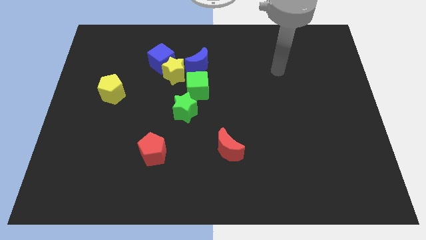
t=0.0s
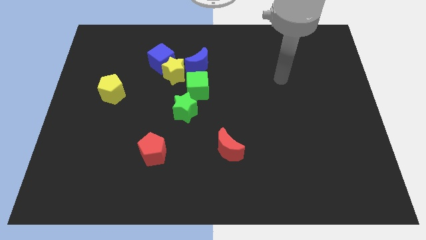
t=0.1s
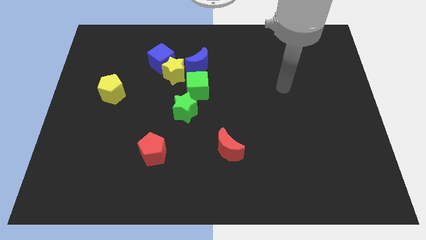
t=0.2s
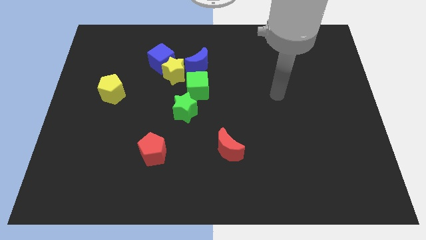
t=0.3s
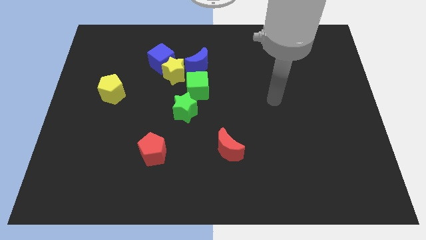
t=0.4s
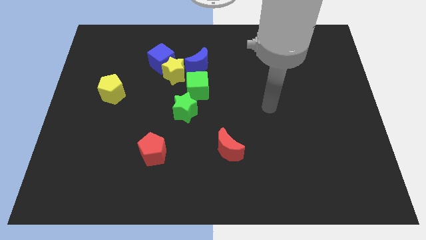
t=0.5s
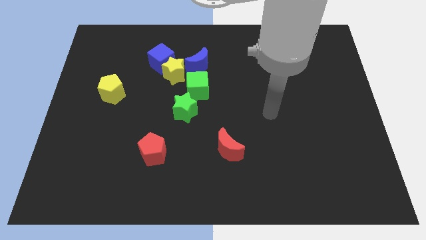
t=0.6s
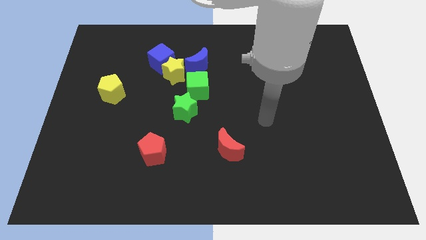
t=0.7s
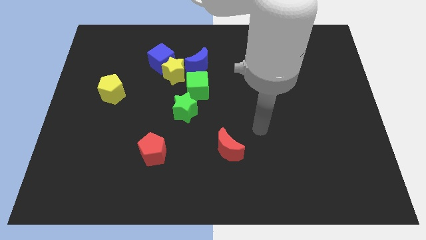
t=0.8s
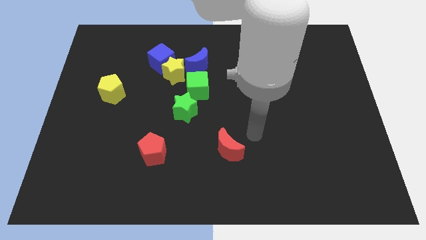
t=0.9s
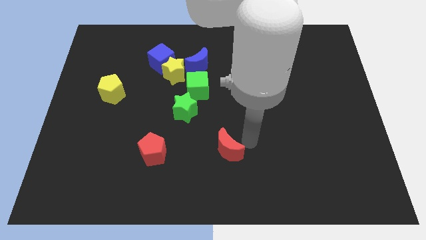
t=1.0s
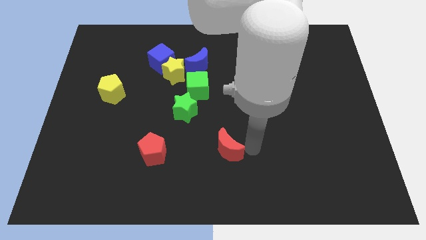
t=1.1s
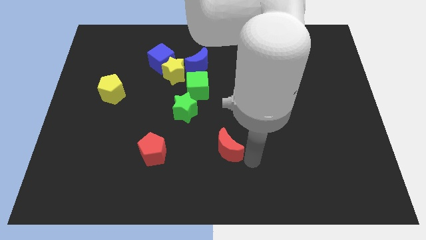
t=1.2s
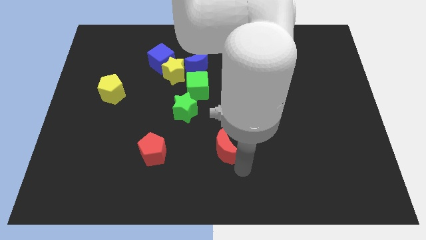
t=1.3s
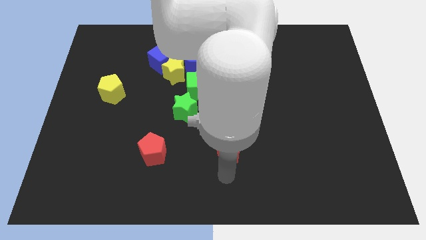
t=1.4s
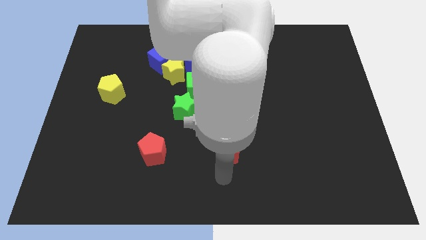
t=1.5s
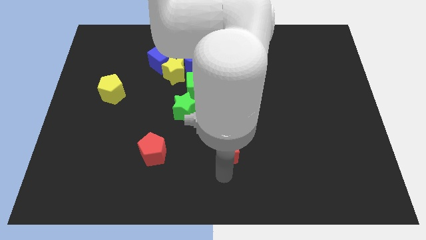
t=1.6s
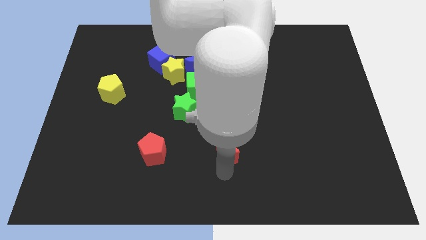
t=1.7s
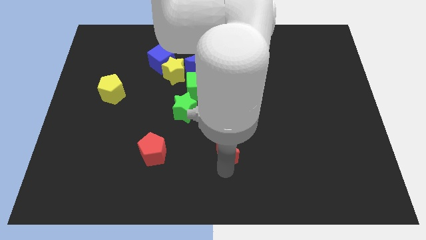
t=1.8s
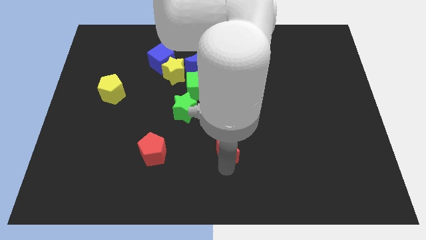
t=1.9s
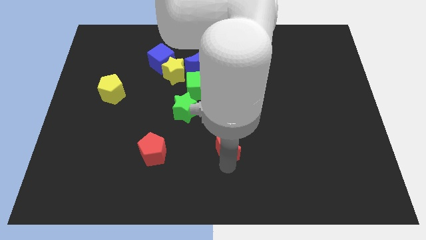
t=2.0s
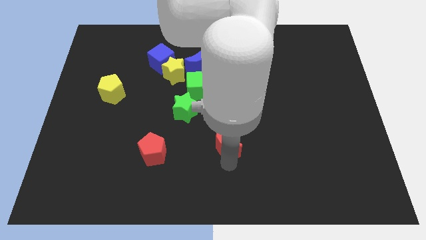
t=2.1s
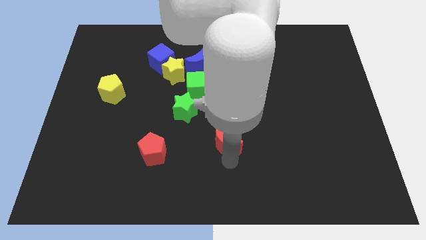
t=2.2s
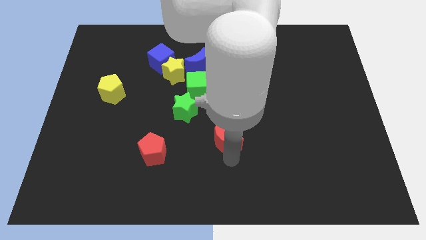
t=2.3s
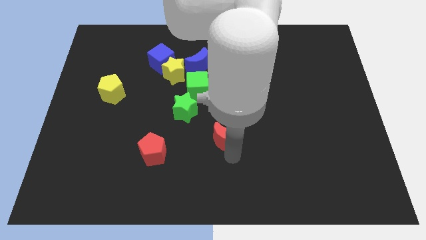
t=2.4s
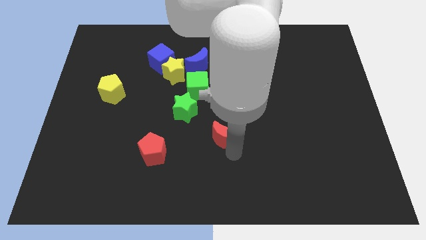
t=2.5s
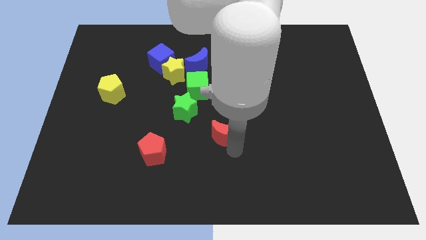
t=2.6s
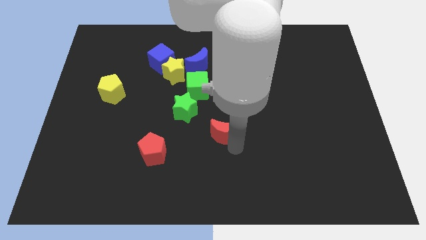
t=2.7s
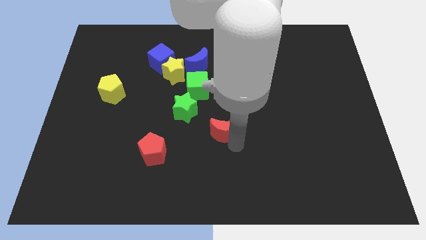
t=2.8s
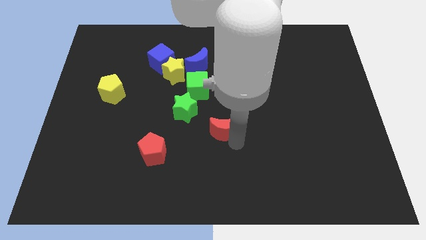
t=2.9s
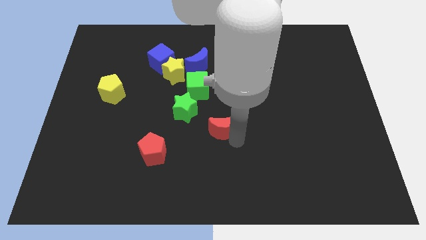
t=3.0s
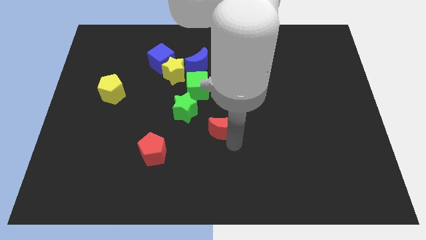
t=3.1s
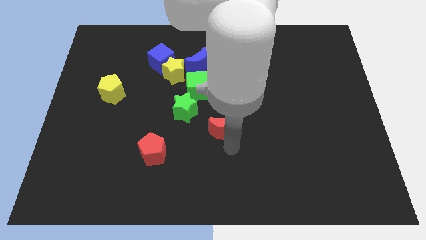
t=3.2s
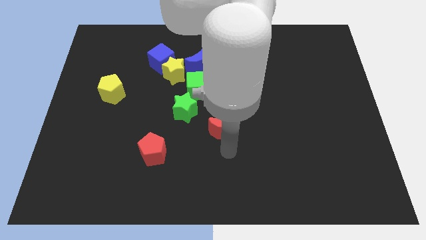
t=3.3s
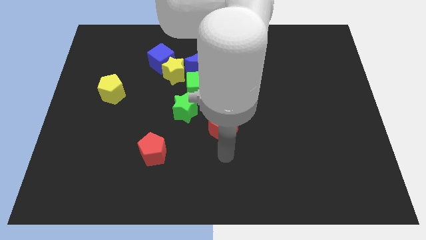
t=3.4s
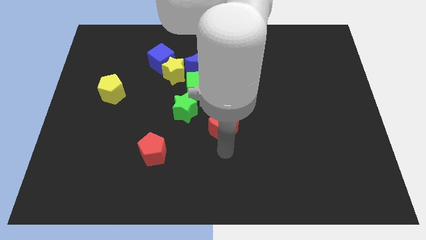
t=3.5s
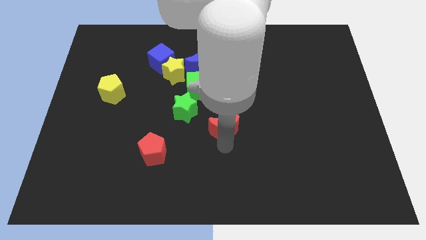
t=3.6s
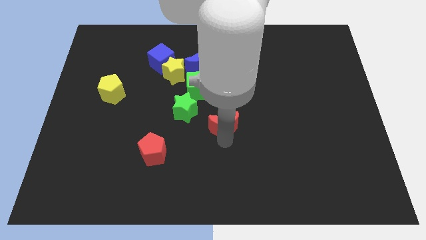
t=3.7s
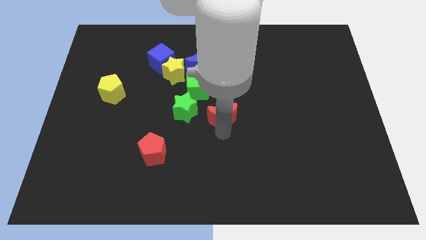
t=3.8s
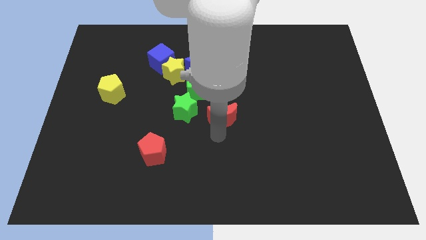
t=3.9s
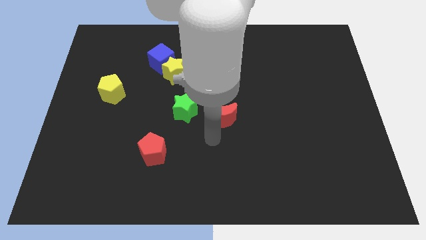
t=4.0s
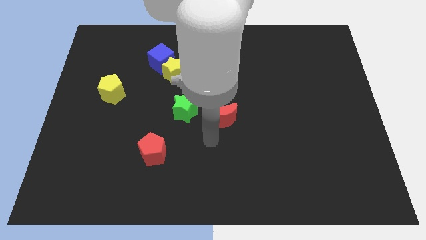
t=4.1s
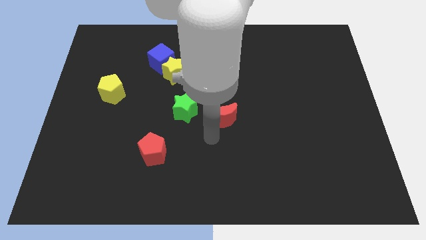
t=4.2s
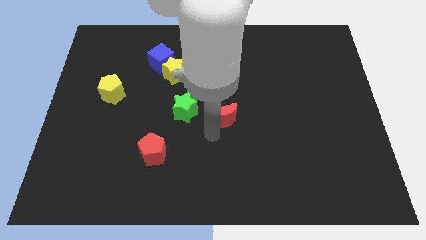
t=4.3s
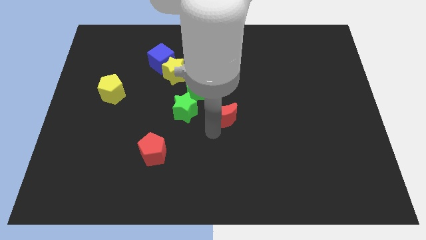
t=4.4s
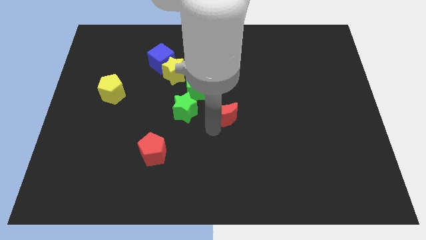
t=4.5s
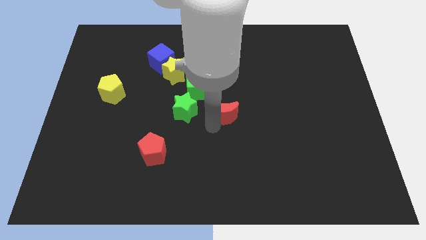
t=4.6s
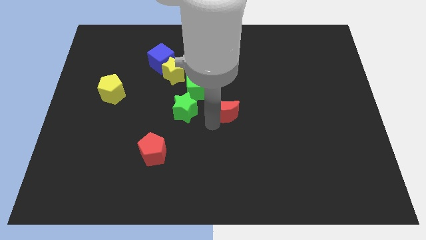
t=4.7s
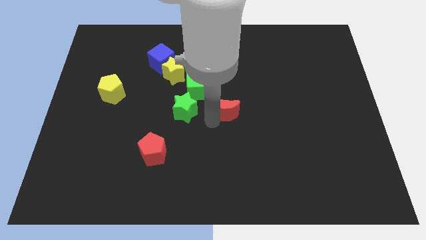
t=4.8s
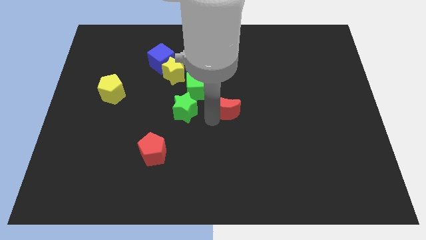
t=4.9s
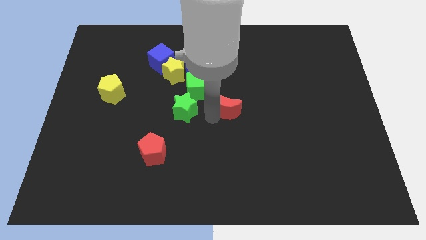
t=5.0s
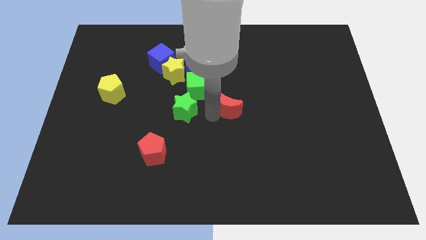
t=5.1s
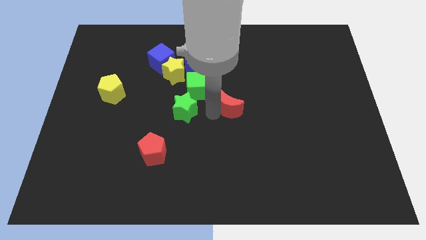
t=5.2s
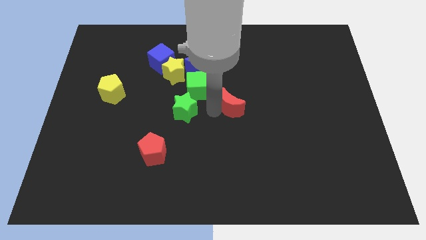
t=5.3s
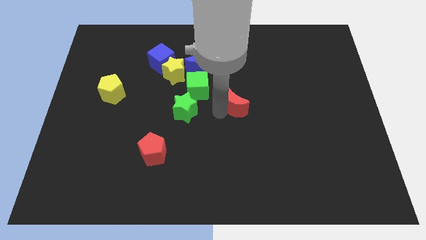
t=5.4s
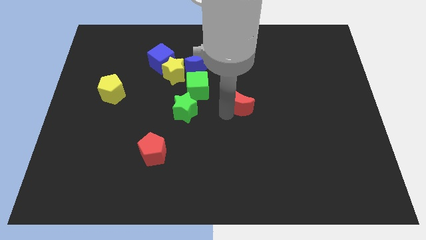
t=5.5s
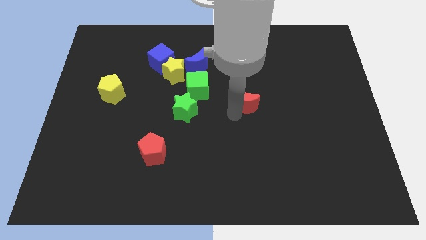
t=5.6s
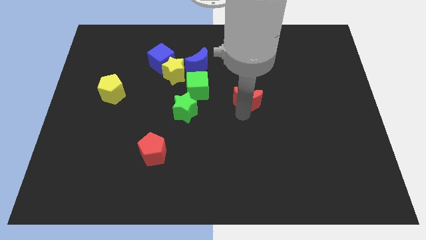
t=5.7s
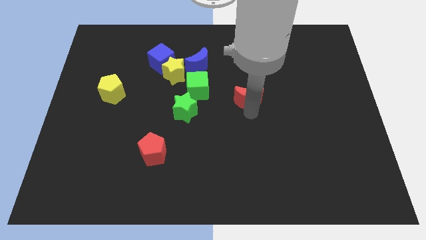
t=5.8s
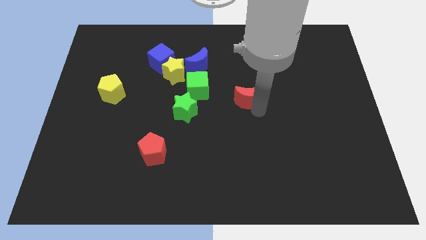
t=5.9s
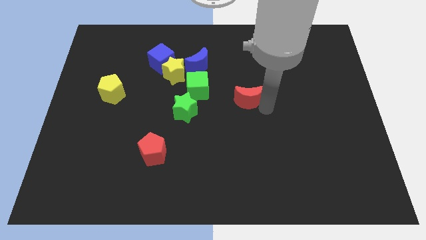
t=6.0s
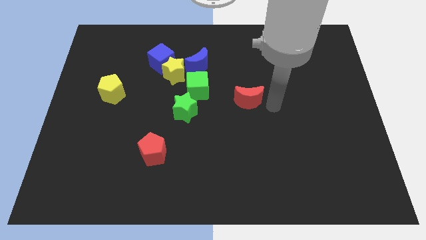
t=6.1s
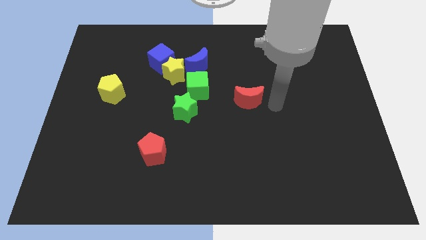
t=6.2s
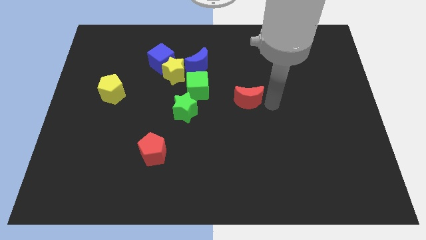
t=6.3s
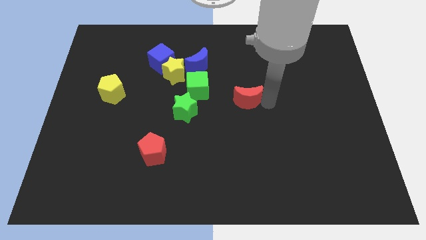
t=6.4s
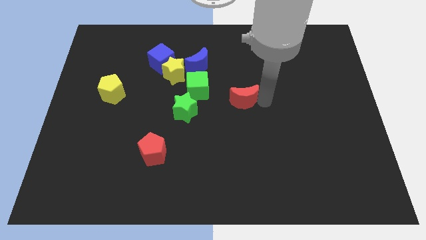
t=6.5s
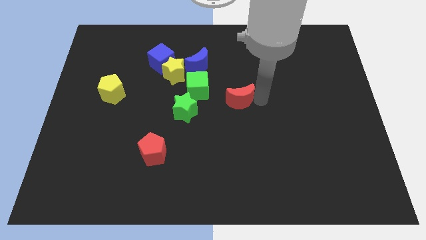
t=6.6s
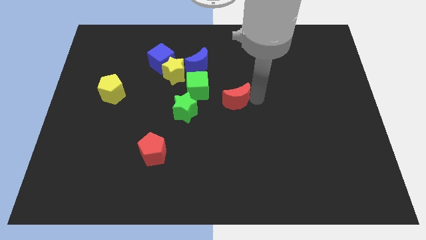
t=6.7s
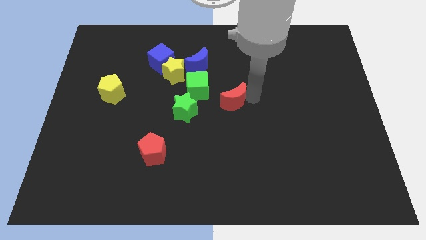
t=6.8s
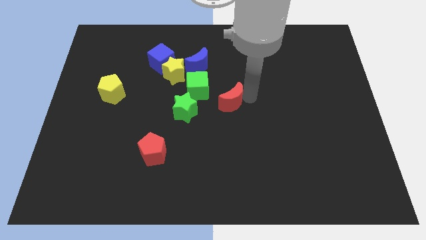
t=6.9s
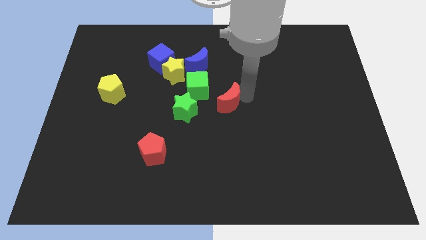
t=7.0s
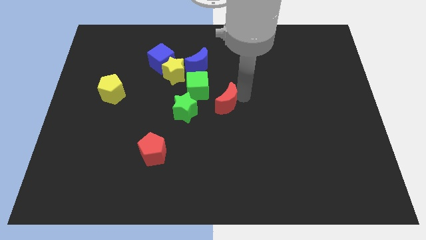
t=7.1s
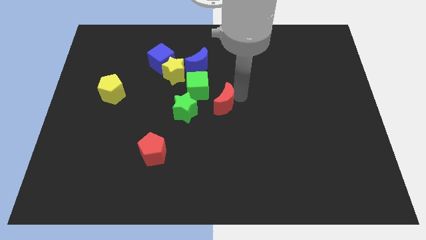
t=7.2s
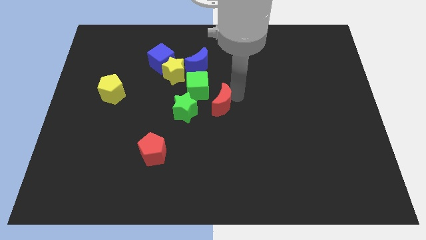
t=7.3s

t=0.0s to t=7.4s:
push the red moon to the top right of the green star

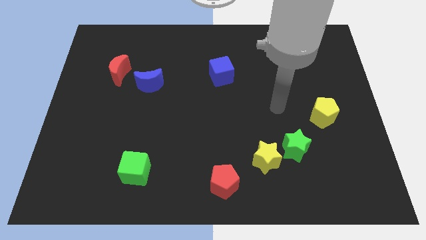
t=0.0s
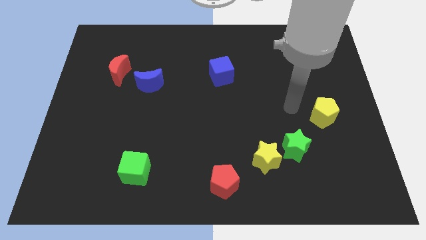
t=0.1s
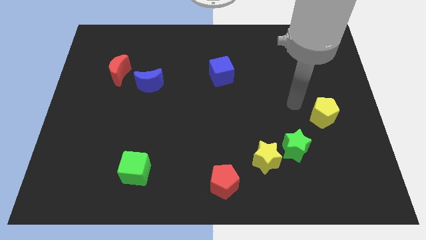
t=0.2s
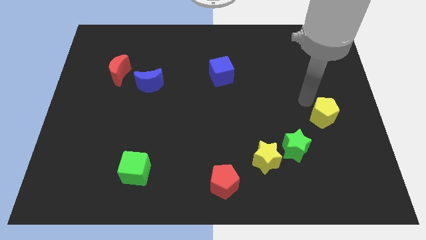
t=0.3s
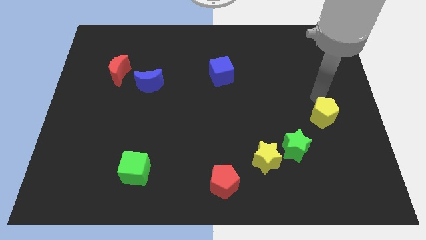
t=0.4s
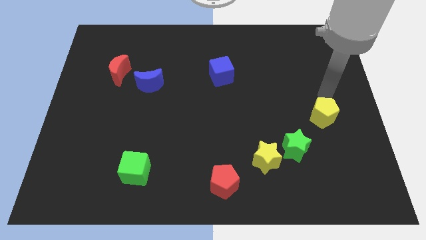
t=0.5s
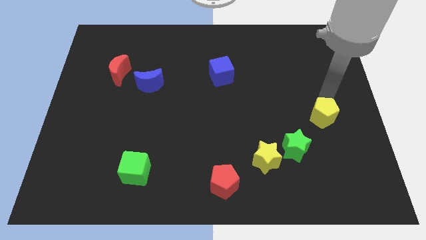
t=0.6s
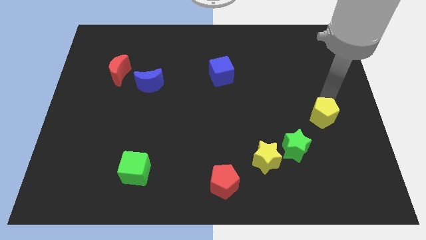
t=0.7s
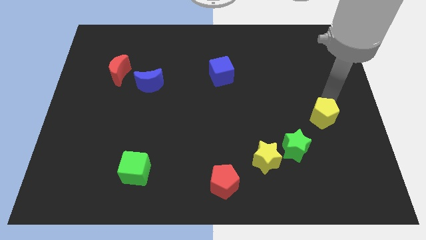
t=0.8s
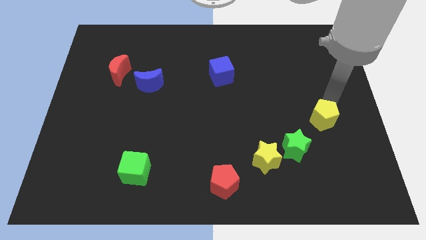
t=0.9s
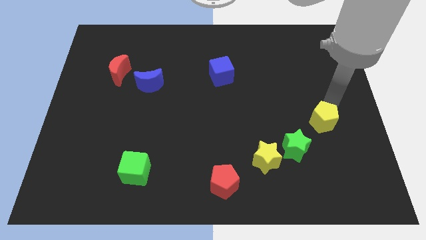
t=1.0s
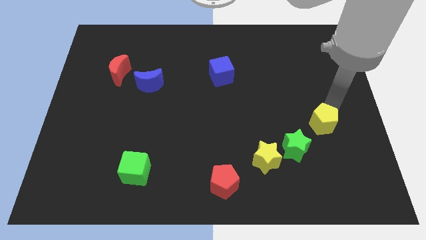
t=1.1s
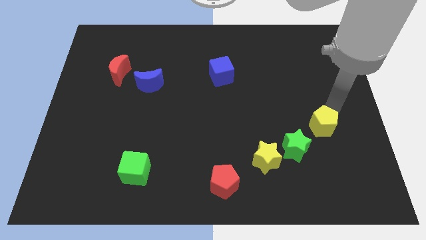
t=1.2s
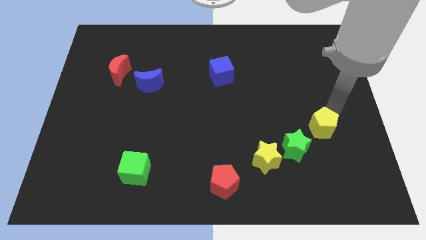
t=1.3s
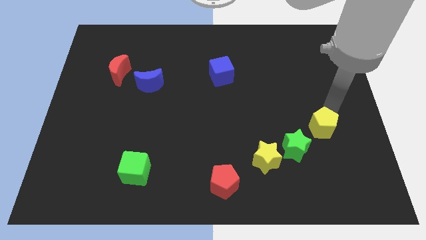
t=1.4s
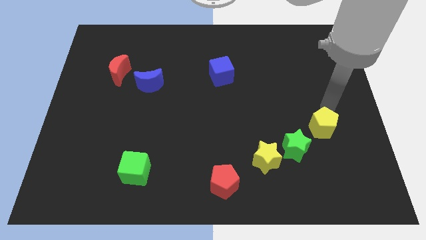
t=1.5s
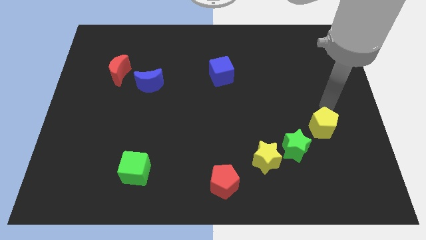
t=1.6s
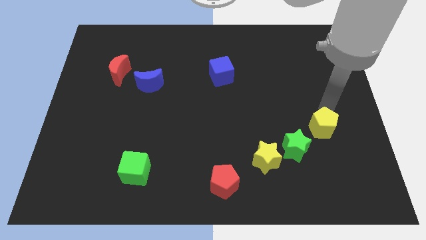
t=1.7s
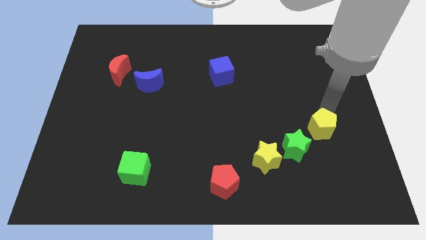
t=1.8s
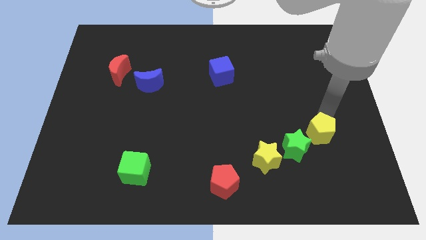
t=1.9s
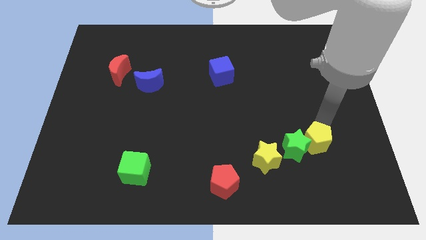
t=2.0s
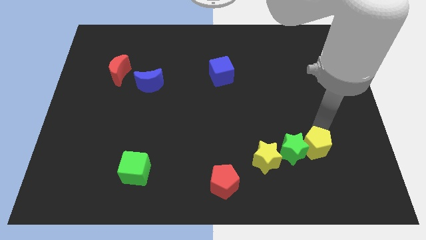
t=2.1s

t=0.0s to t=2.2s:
push the yellow pentagon to the bottom right side of the green star
